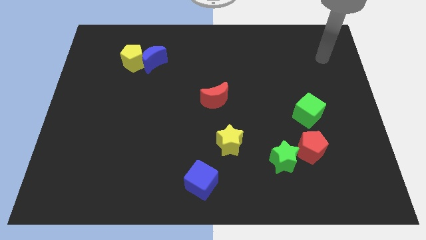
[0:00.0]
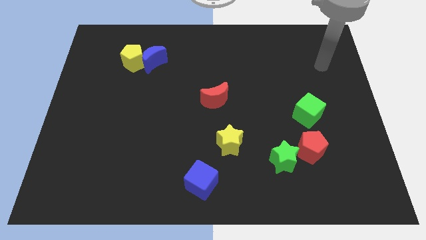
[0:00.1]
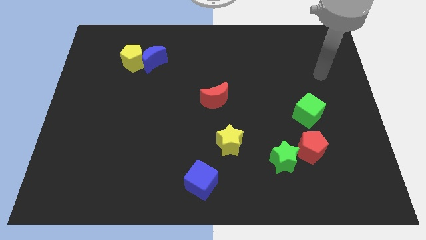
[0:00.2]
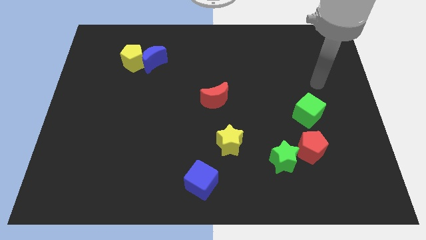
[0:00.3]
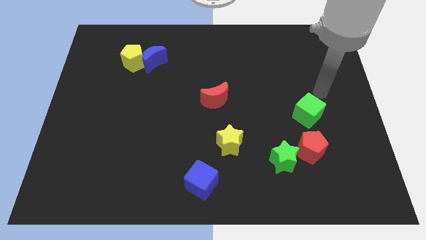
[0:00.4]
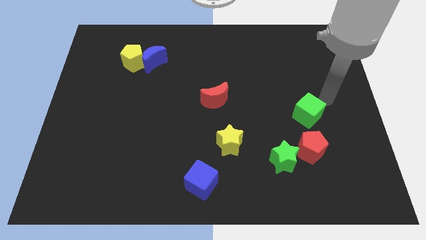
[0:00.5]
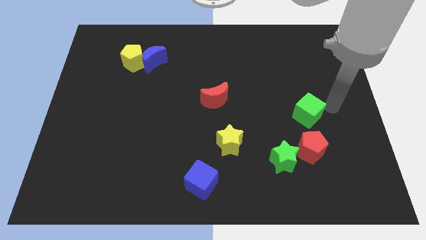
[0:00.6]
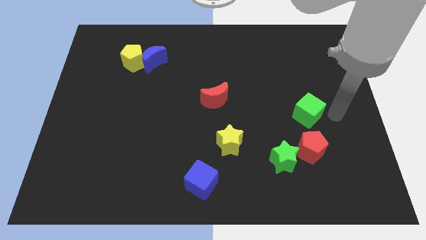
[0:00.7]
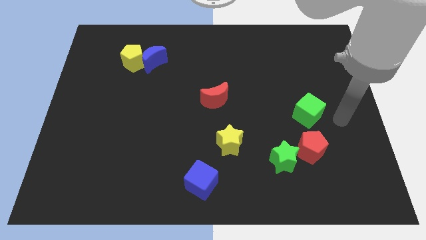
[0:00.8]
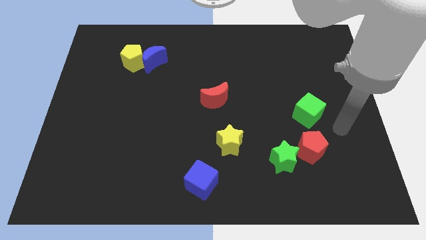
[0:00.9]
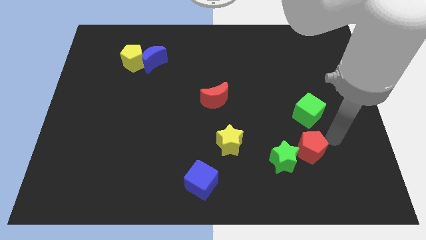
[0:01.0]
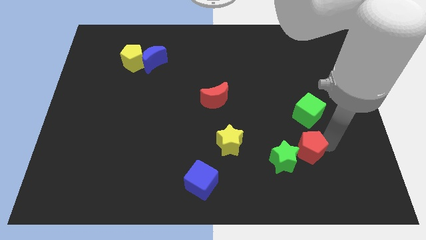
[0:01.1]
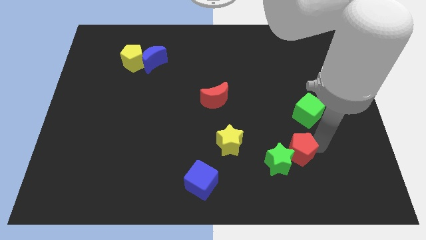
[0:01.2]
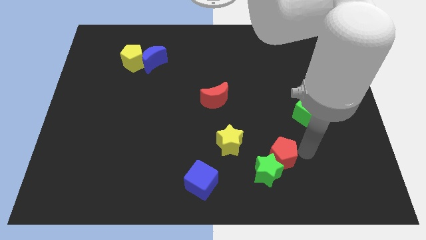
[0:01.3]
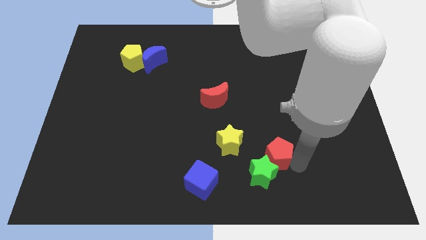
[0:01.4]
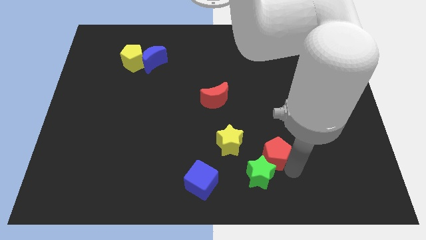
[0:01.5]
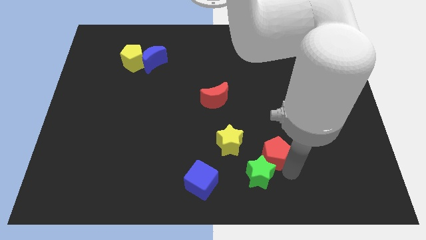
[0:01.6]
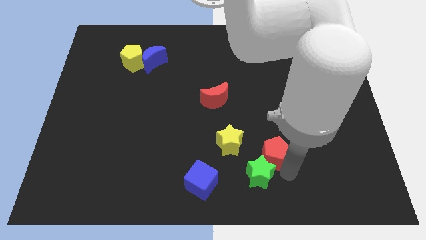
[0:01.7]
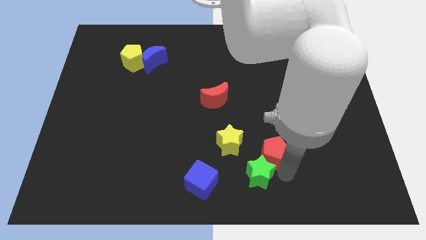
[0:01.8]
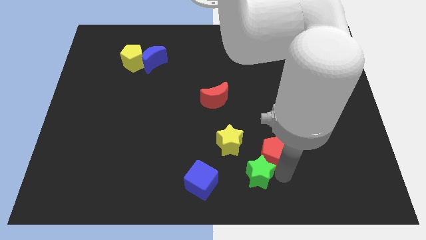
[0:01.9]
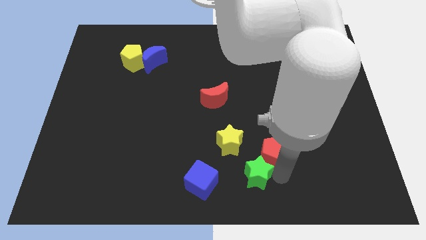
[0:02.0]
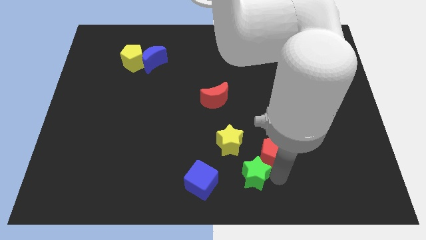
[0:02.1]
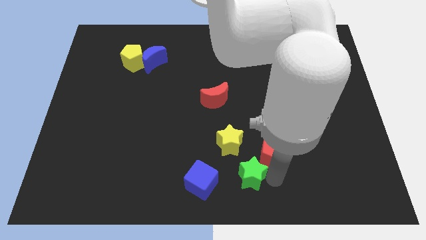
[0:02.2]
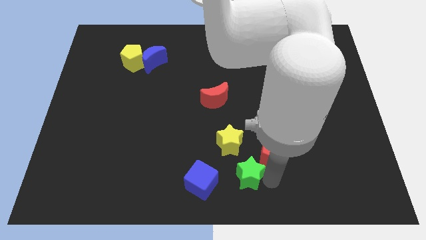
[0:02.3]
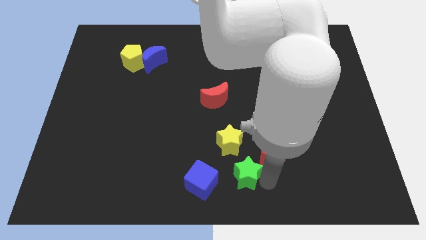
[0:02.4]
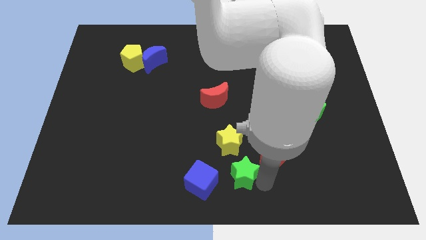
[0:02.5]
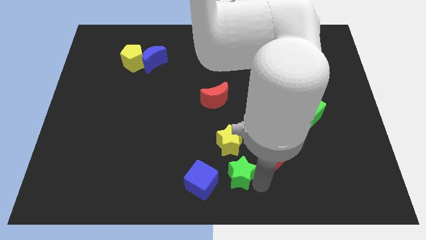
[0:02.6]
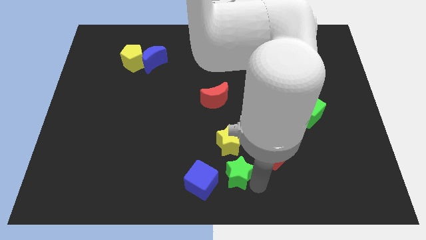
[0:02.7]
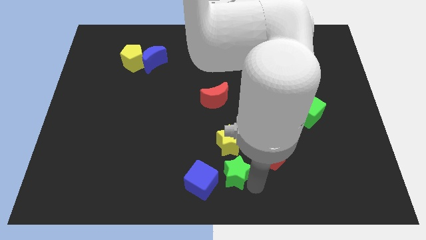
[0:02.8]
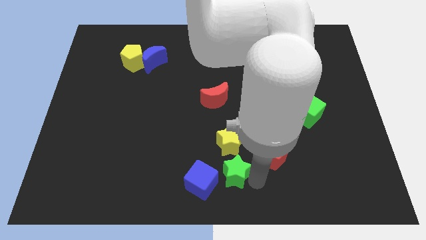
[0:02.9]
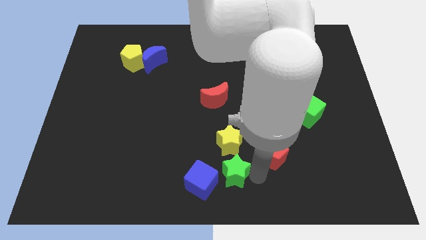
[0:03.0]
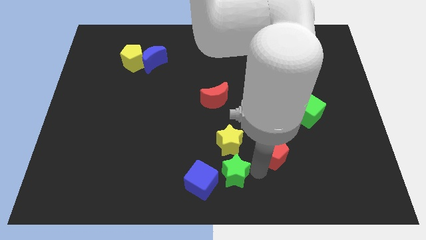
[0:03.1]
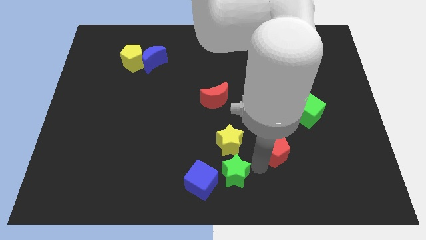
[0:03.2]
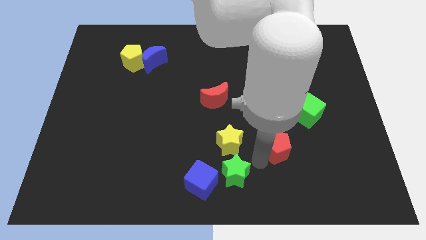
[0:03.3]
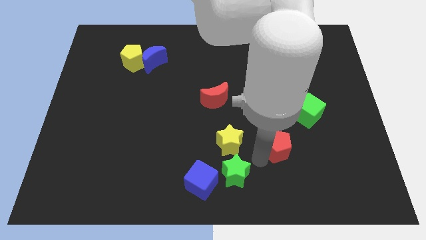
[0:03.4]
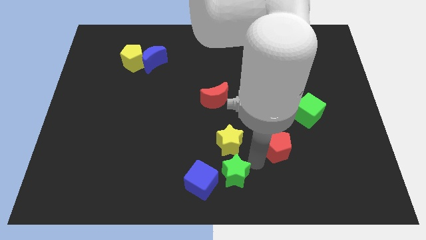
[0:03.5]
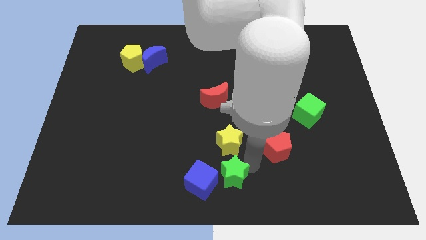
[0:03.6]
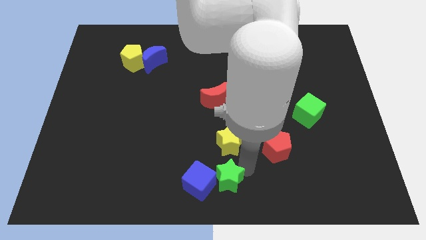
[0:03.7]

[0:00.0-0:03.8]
put the green star next to the blue cube

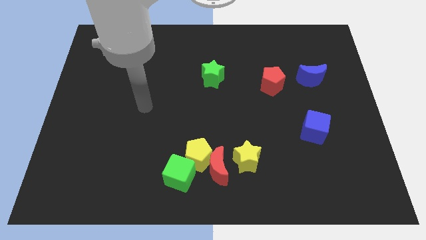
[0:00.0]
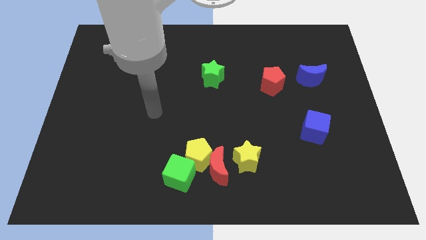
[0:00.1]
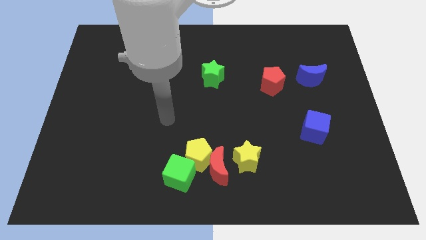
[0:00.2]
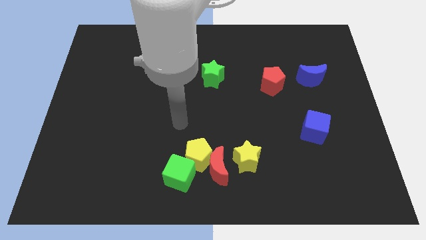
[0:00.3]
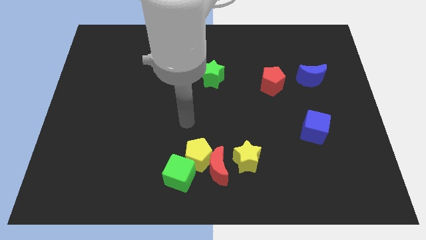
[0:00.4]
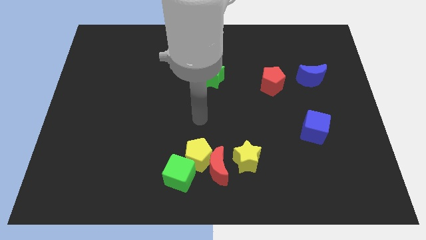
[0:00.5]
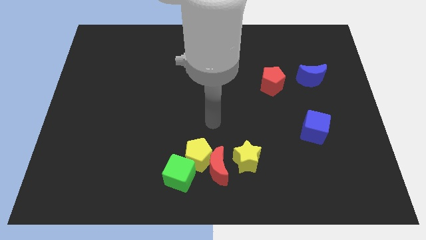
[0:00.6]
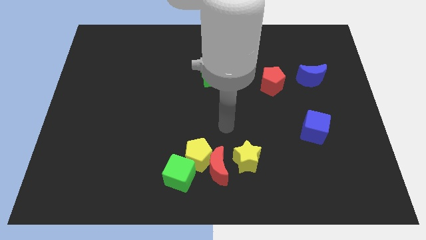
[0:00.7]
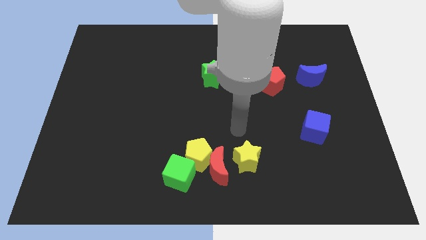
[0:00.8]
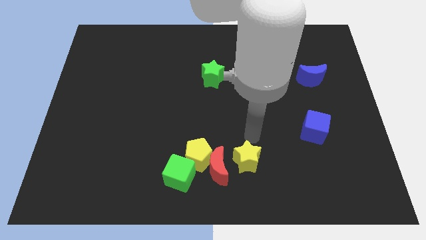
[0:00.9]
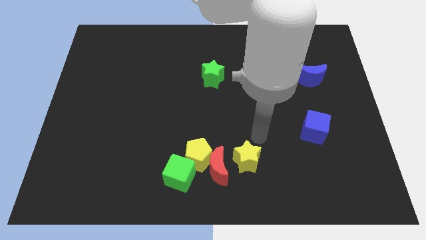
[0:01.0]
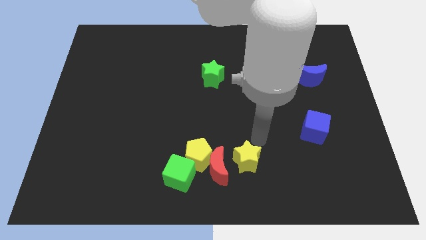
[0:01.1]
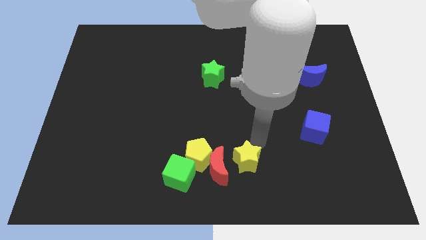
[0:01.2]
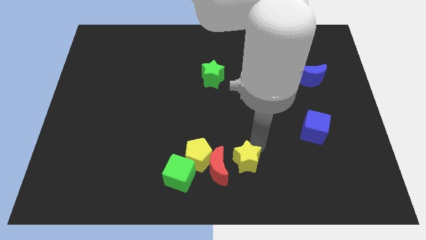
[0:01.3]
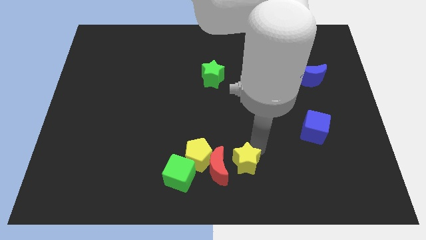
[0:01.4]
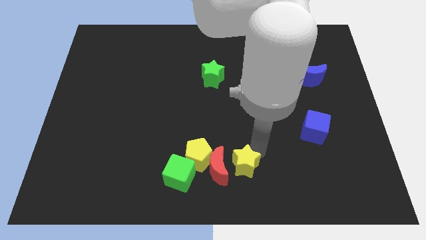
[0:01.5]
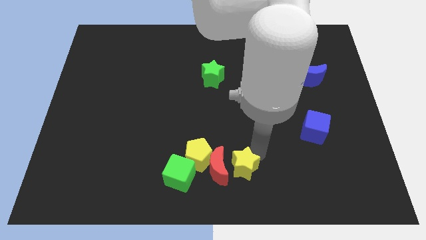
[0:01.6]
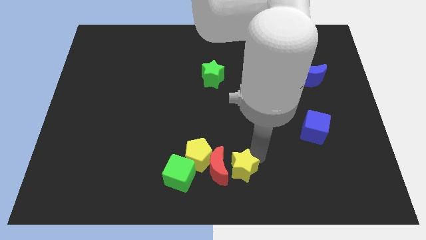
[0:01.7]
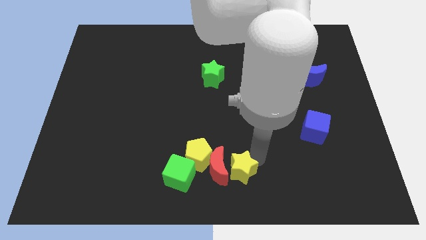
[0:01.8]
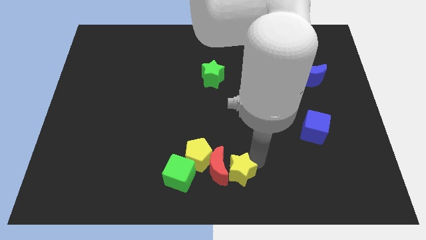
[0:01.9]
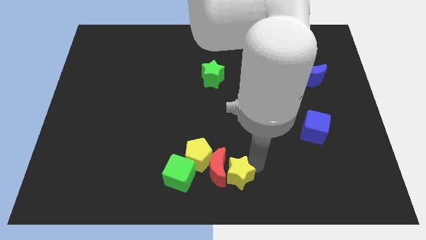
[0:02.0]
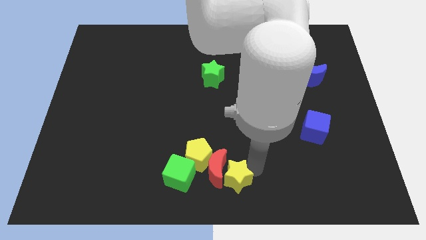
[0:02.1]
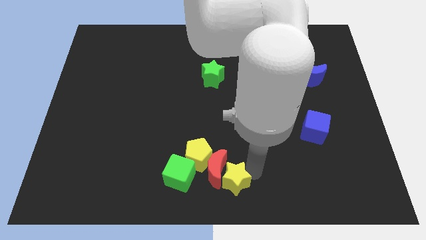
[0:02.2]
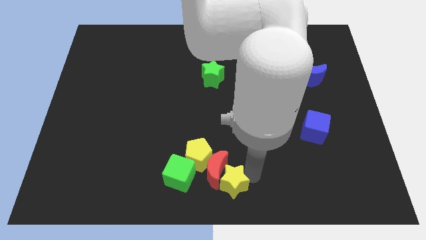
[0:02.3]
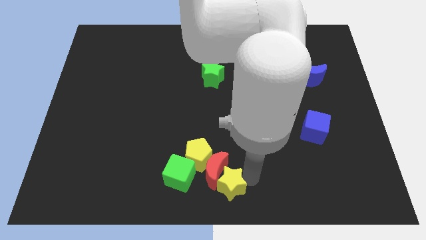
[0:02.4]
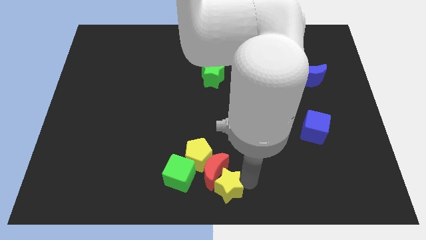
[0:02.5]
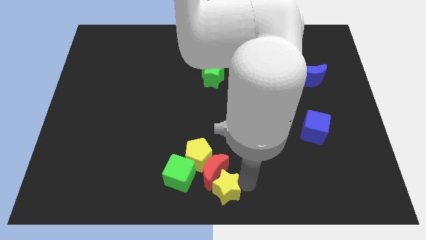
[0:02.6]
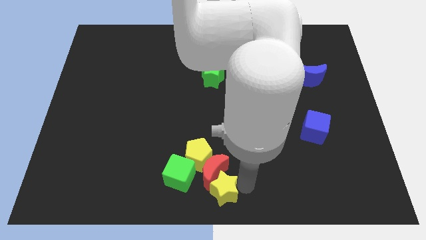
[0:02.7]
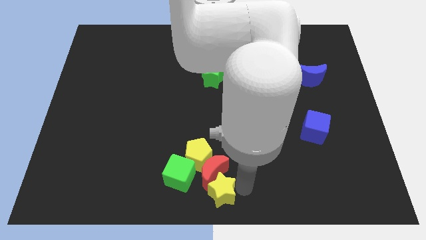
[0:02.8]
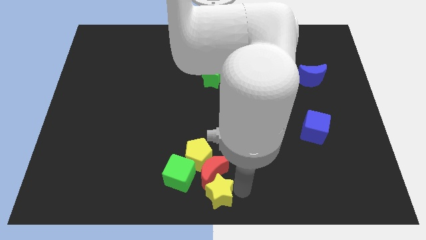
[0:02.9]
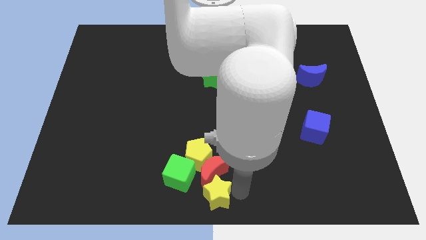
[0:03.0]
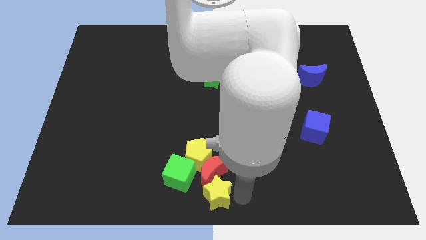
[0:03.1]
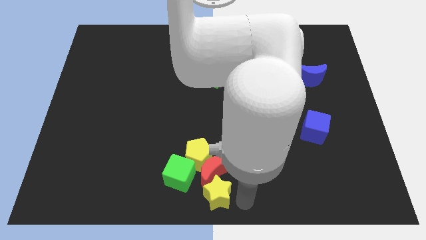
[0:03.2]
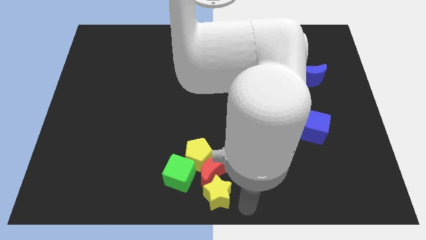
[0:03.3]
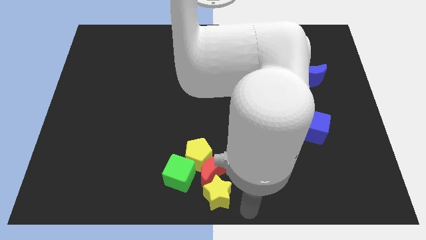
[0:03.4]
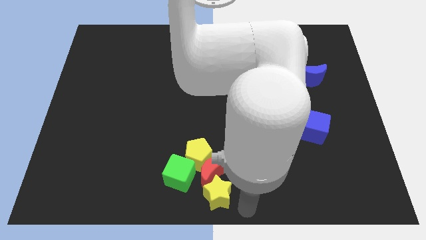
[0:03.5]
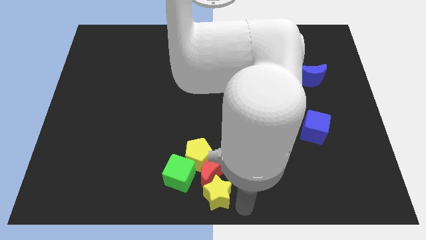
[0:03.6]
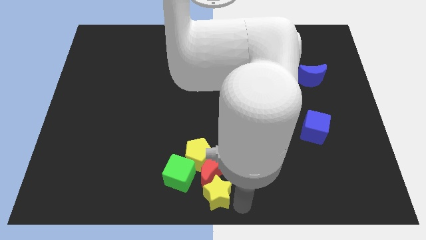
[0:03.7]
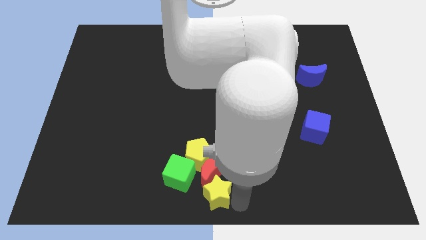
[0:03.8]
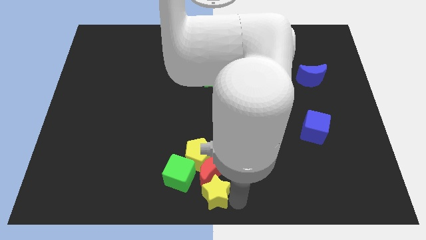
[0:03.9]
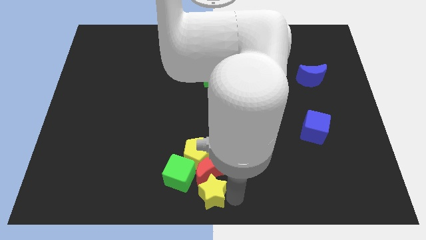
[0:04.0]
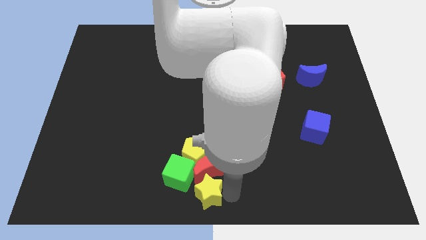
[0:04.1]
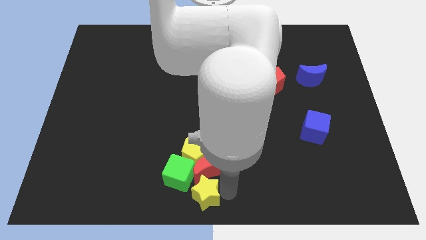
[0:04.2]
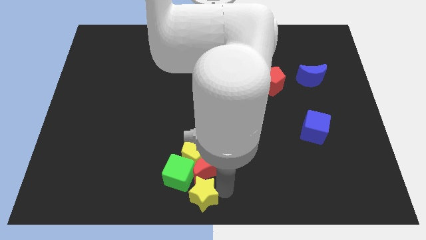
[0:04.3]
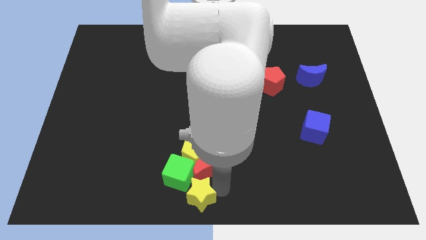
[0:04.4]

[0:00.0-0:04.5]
push the yellow star close to the green cube

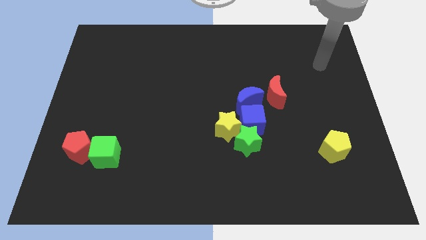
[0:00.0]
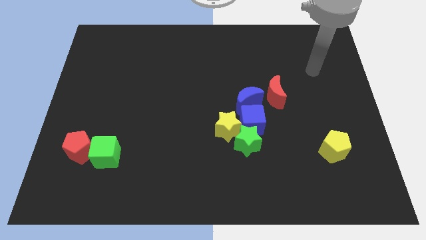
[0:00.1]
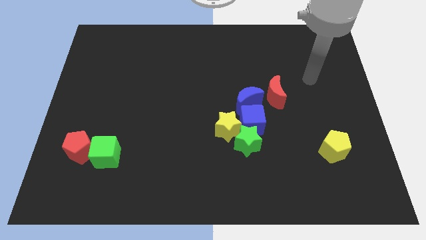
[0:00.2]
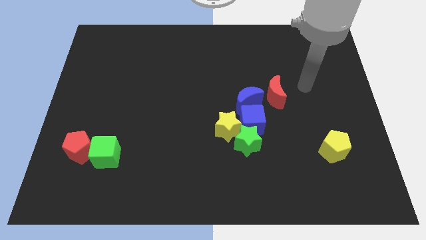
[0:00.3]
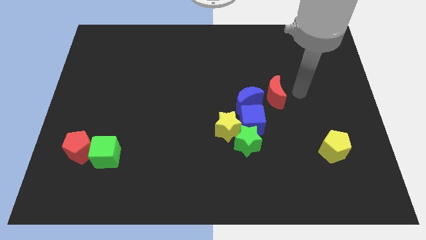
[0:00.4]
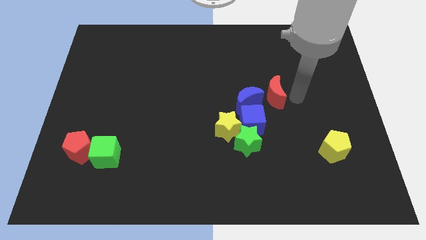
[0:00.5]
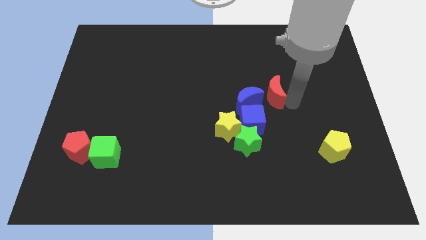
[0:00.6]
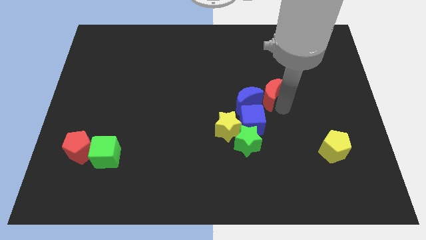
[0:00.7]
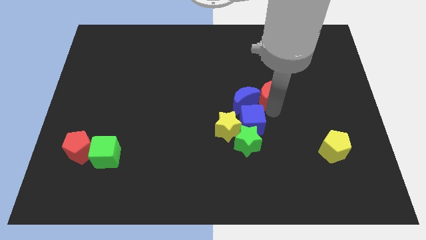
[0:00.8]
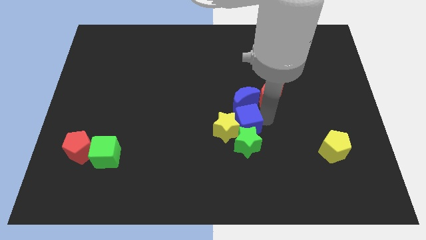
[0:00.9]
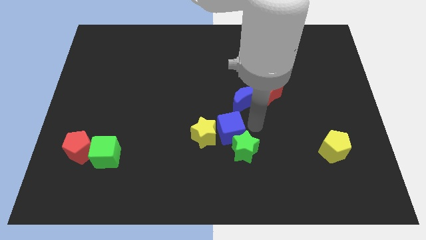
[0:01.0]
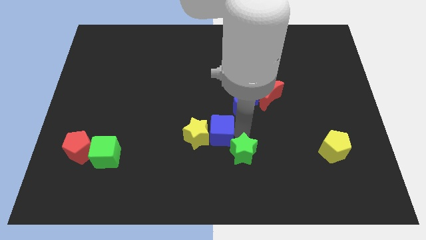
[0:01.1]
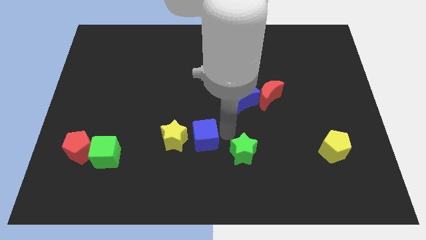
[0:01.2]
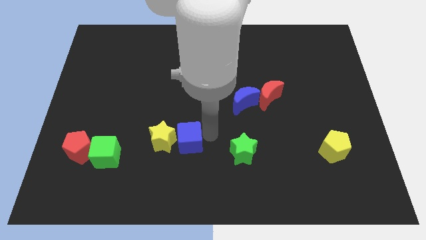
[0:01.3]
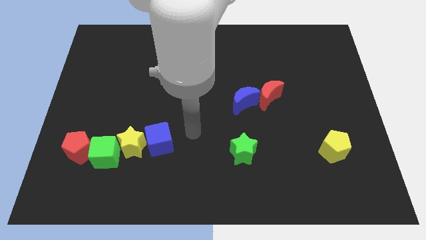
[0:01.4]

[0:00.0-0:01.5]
push the yellow star towards the green cube
